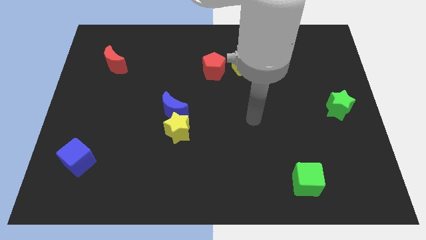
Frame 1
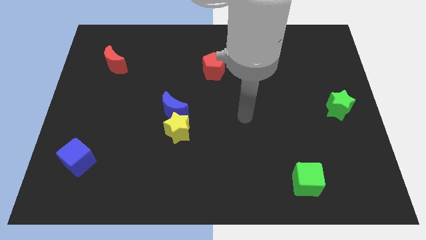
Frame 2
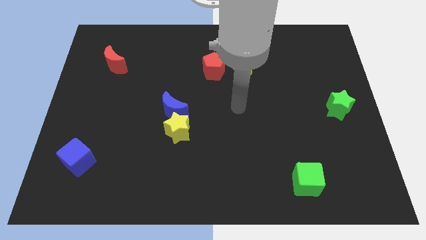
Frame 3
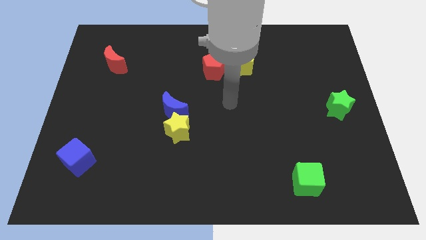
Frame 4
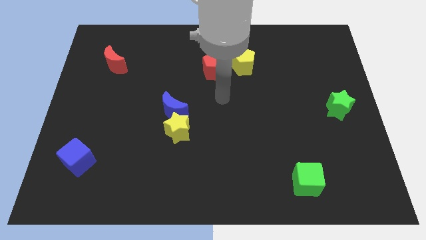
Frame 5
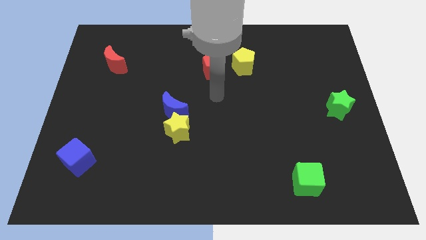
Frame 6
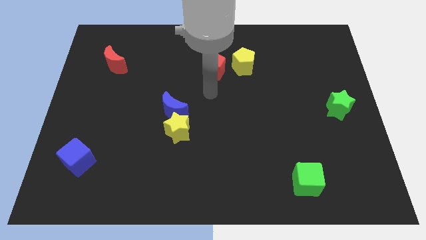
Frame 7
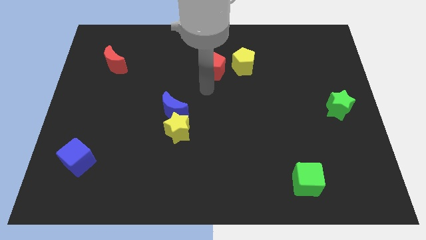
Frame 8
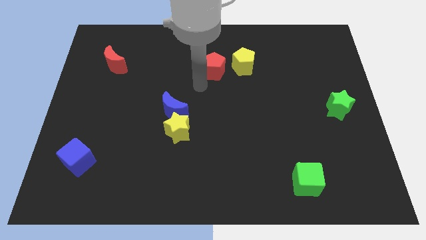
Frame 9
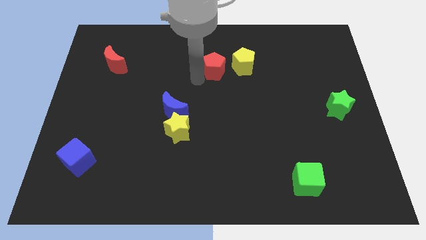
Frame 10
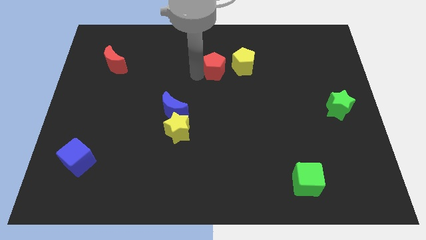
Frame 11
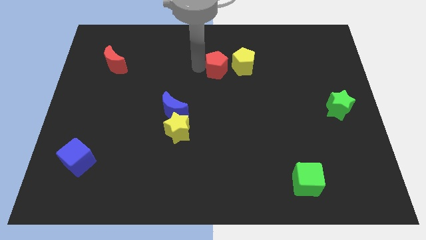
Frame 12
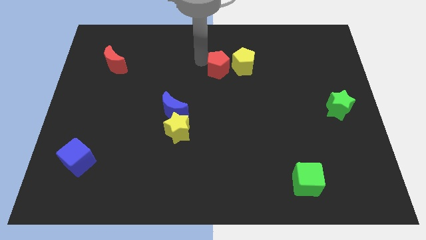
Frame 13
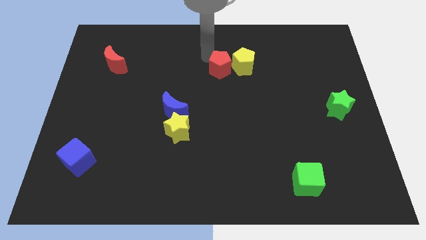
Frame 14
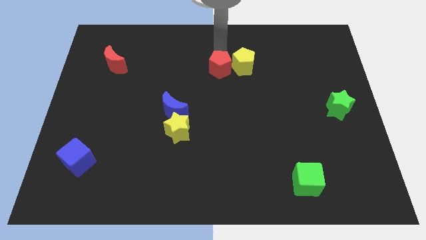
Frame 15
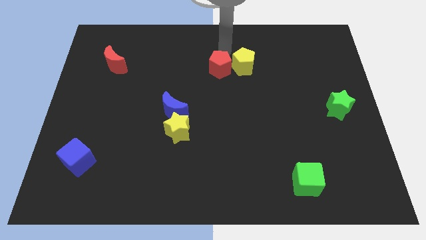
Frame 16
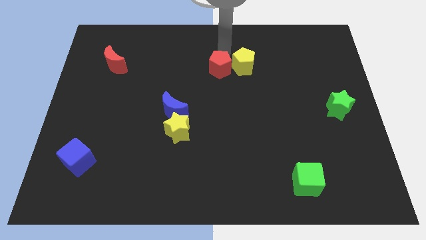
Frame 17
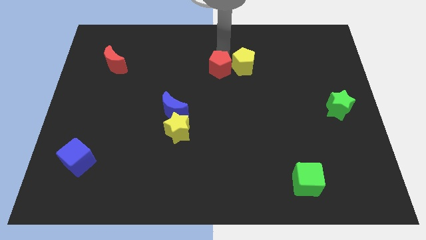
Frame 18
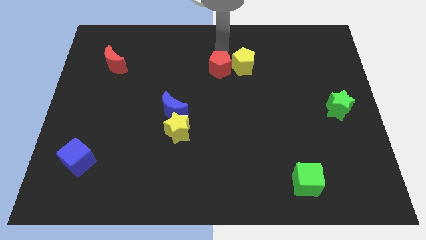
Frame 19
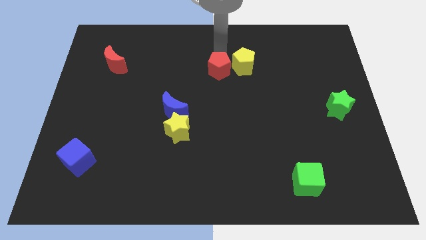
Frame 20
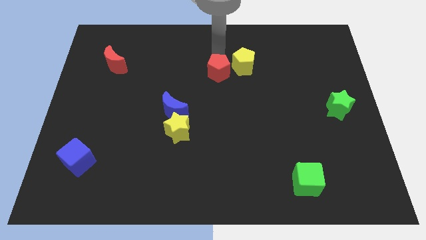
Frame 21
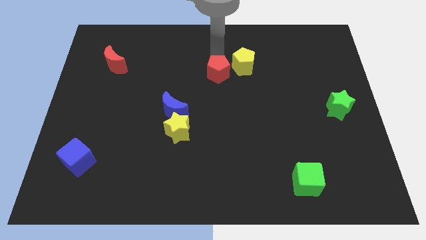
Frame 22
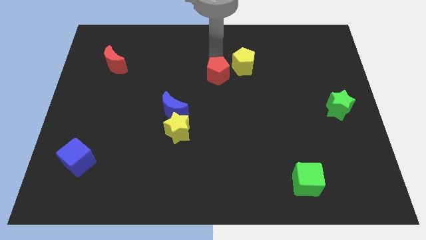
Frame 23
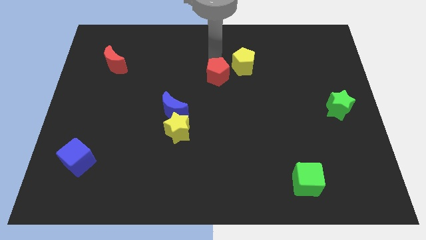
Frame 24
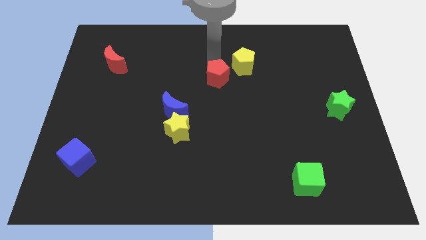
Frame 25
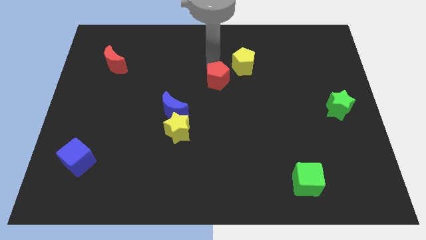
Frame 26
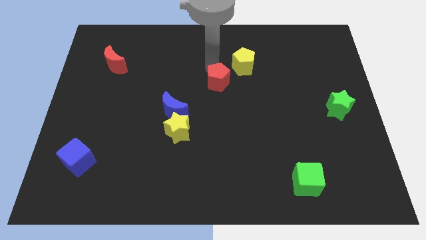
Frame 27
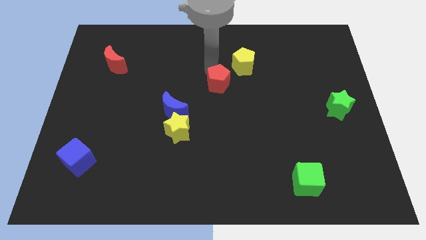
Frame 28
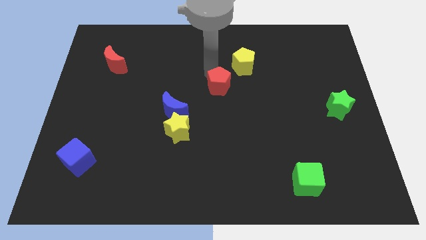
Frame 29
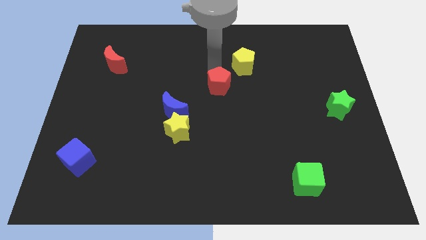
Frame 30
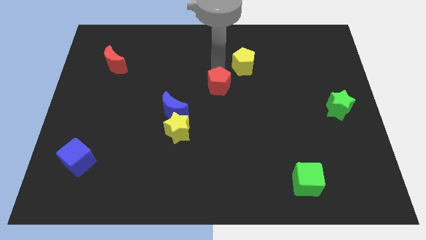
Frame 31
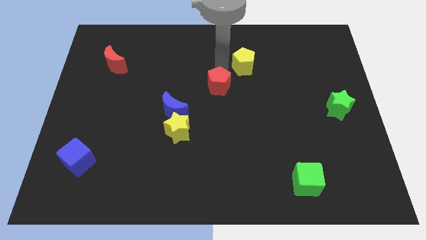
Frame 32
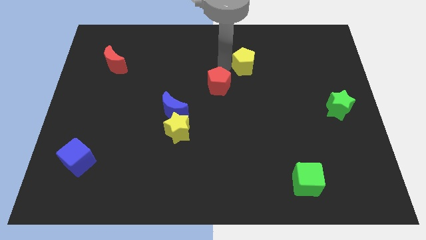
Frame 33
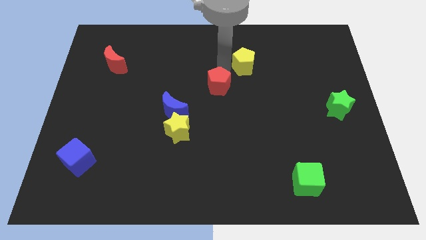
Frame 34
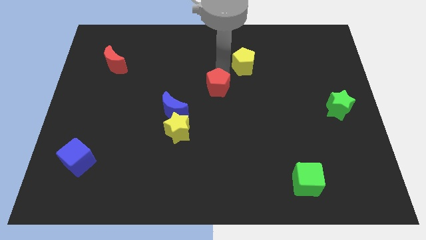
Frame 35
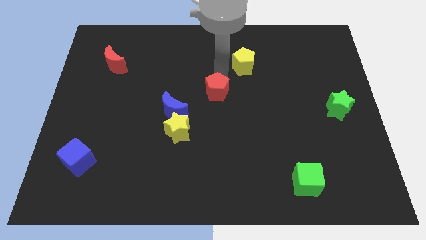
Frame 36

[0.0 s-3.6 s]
push the red pentagon a bit downwards

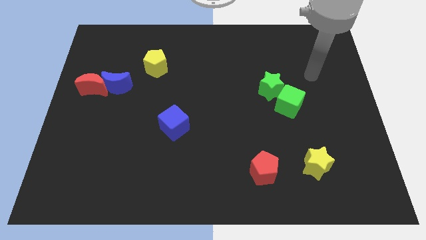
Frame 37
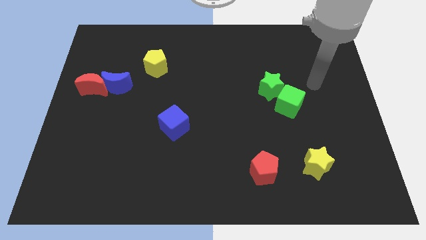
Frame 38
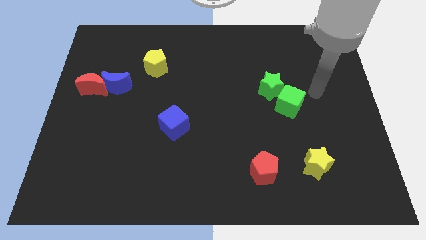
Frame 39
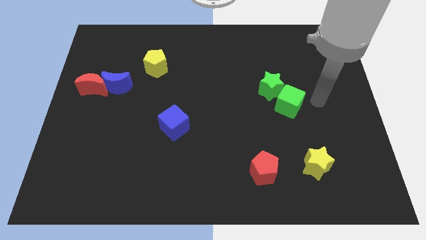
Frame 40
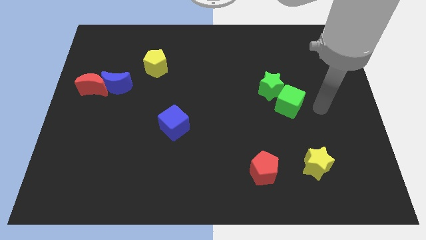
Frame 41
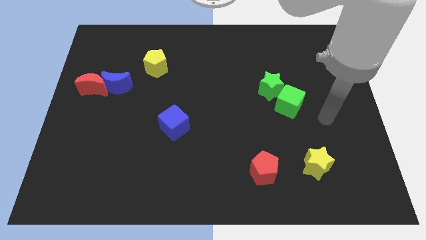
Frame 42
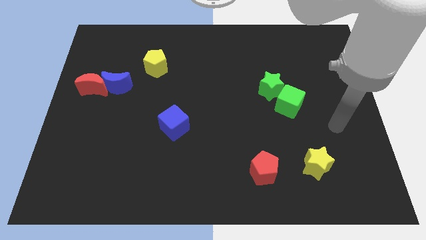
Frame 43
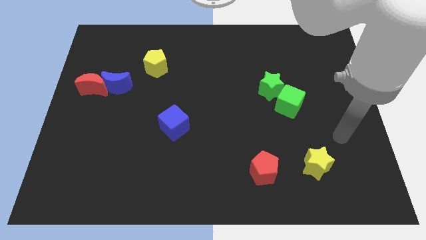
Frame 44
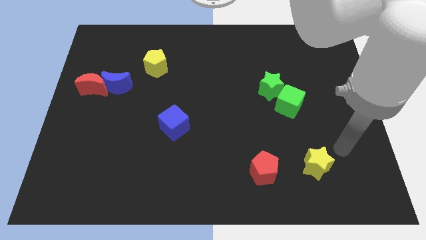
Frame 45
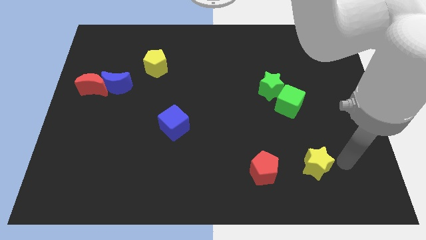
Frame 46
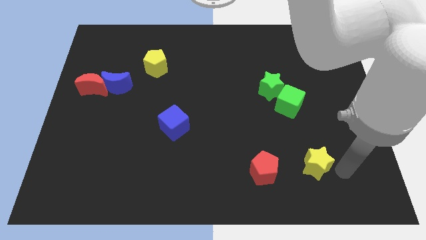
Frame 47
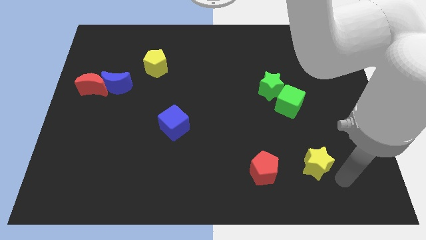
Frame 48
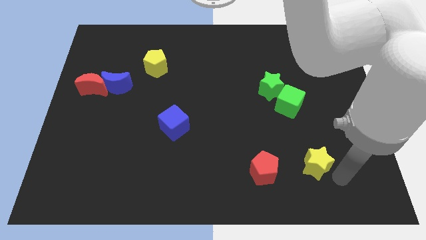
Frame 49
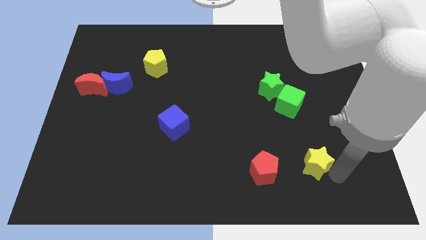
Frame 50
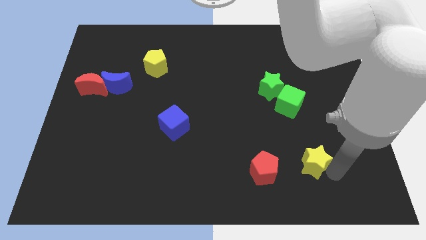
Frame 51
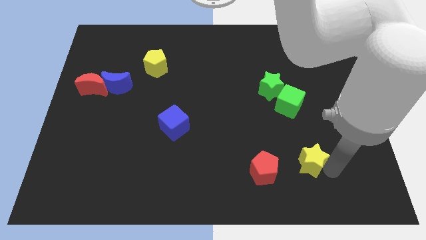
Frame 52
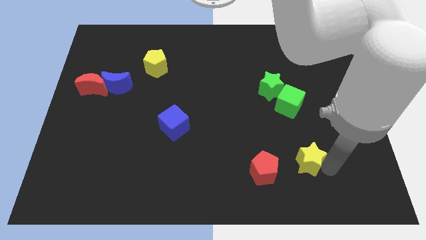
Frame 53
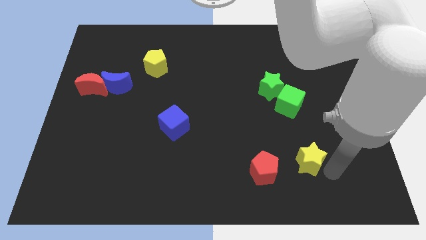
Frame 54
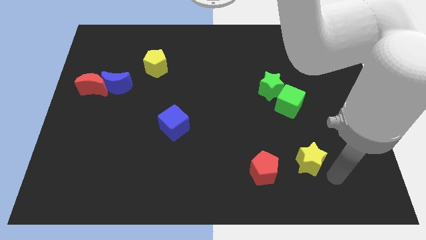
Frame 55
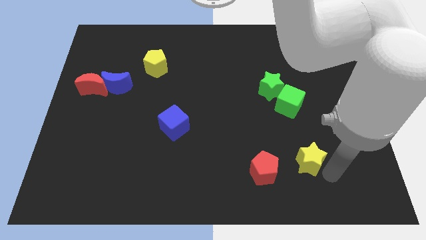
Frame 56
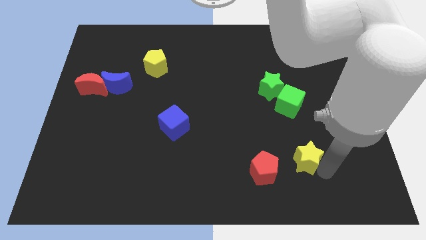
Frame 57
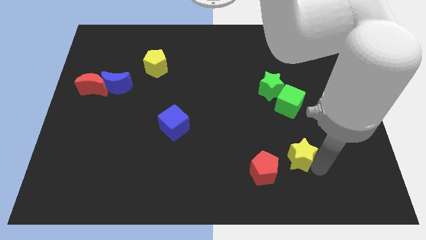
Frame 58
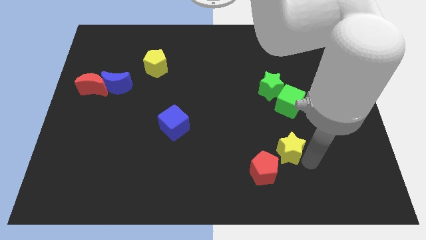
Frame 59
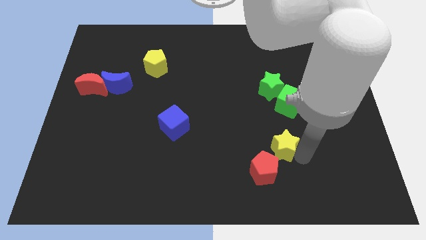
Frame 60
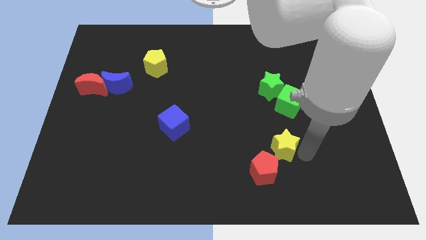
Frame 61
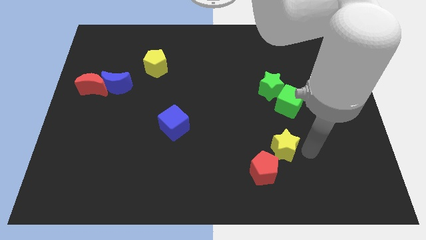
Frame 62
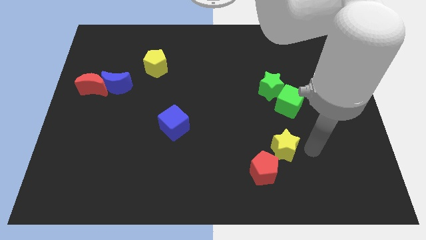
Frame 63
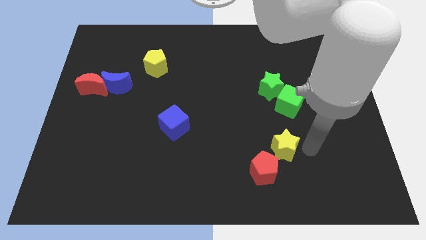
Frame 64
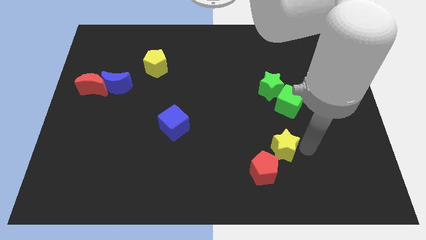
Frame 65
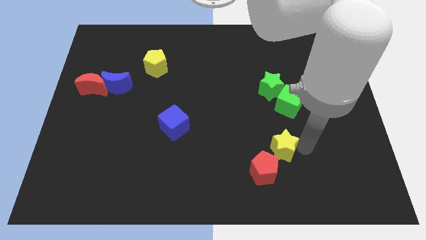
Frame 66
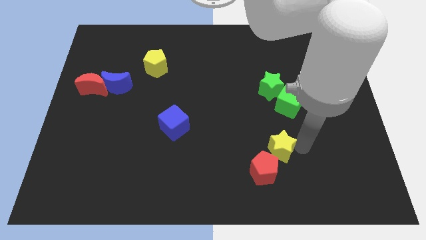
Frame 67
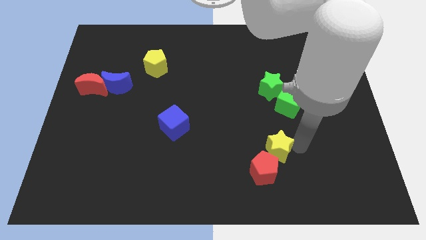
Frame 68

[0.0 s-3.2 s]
move the yellow star left a little

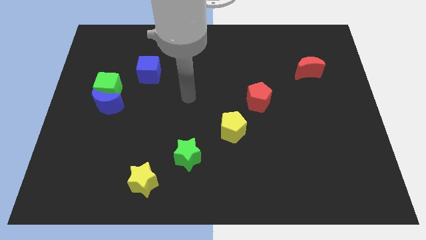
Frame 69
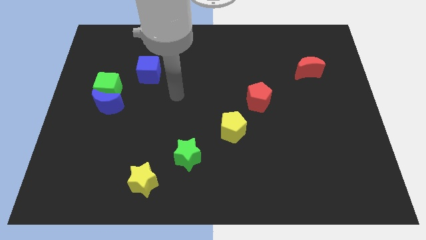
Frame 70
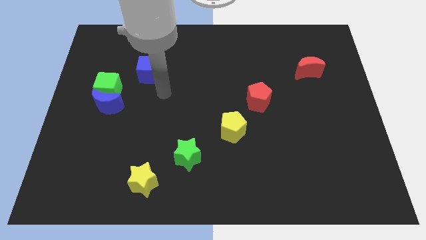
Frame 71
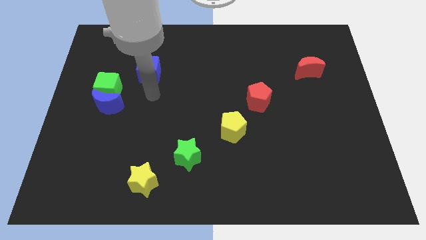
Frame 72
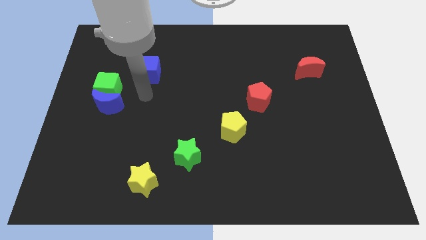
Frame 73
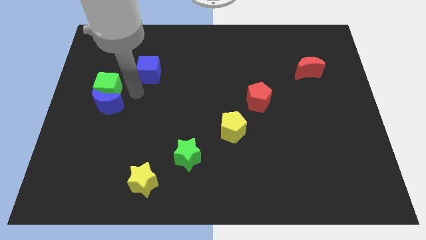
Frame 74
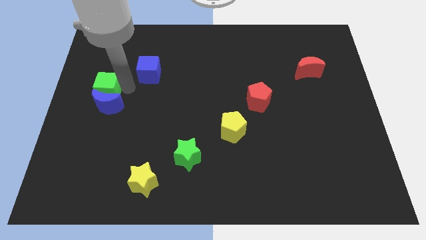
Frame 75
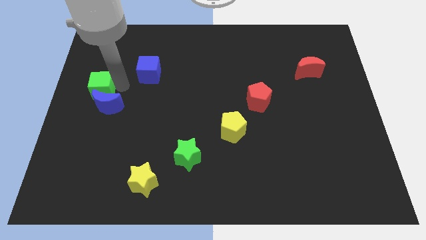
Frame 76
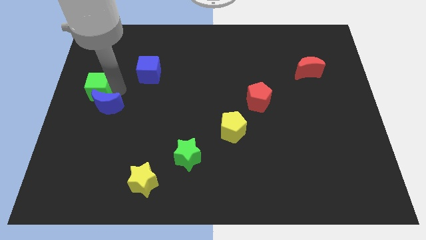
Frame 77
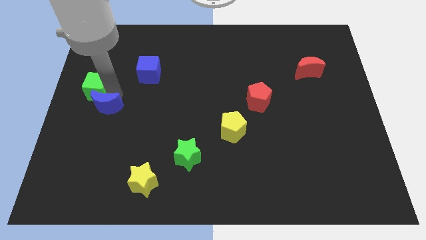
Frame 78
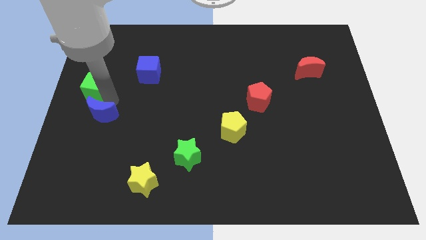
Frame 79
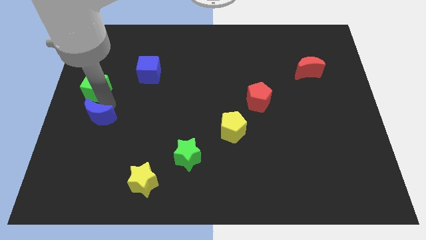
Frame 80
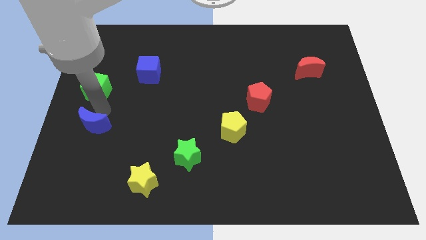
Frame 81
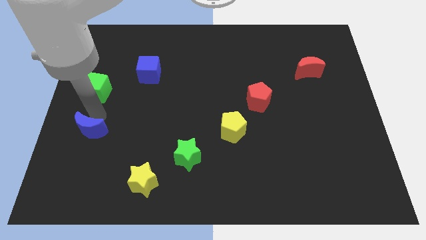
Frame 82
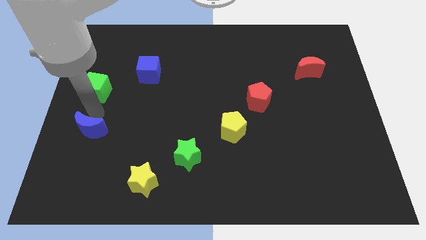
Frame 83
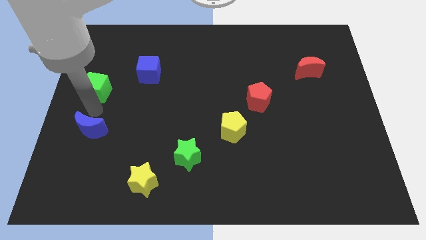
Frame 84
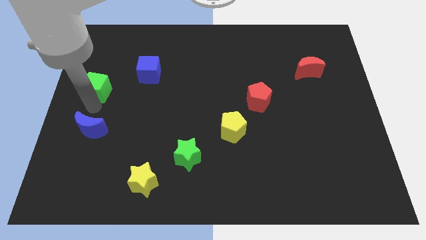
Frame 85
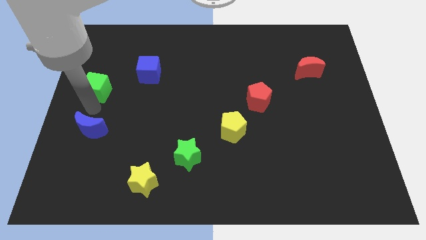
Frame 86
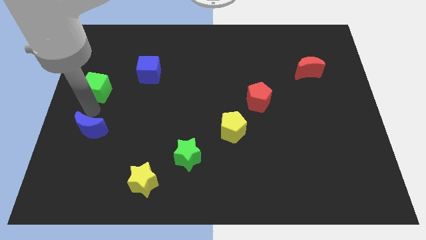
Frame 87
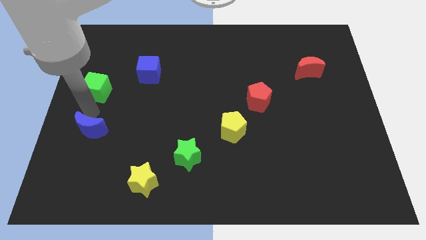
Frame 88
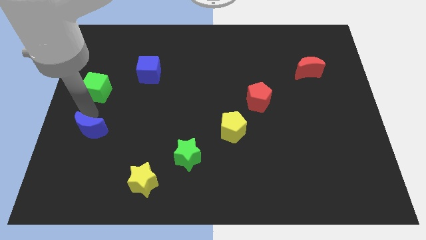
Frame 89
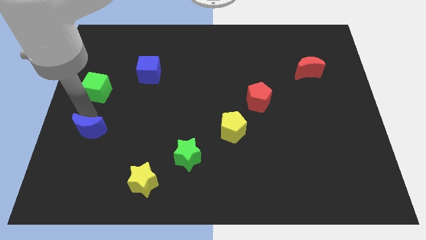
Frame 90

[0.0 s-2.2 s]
move the blue moon a little bit down
